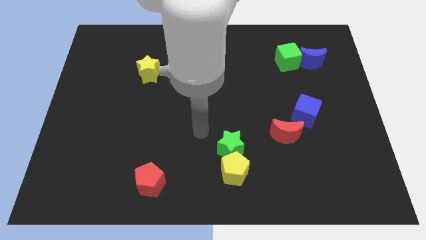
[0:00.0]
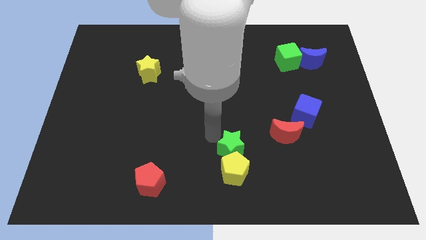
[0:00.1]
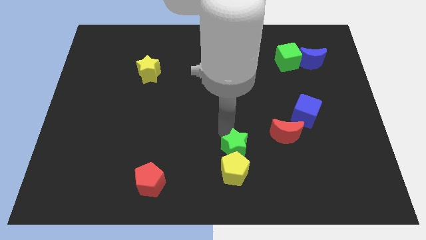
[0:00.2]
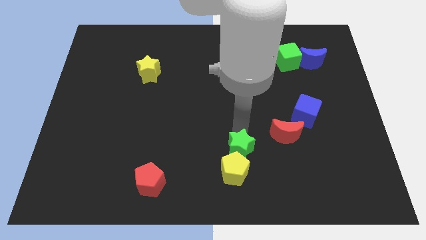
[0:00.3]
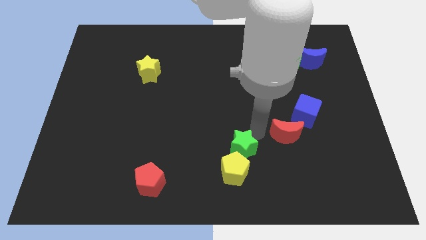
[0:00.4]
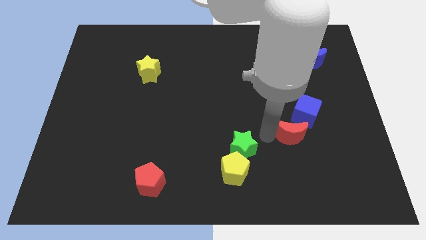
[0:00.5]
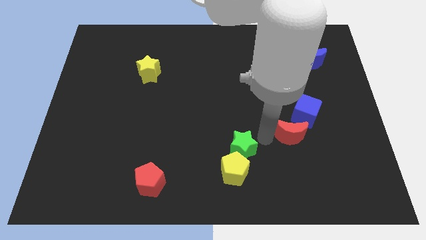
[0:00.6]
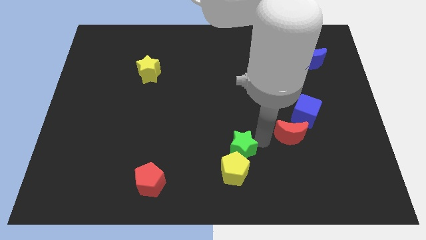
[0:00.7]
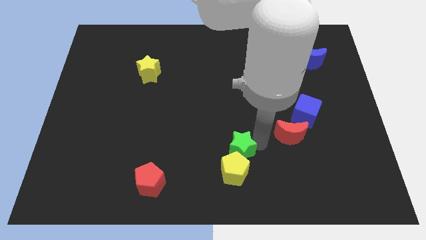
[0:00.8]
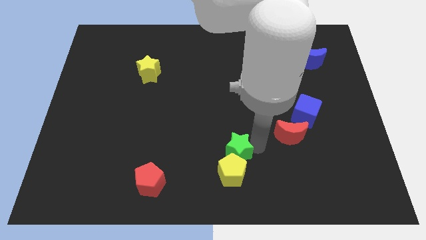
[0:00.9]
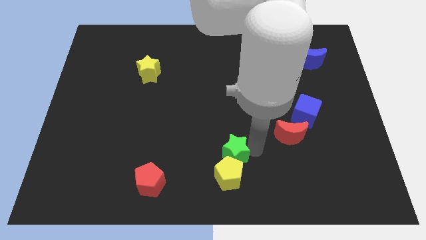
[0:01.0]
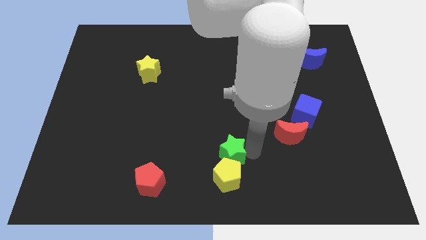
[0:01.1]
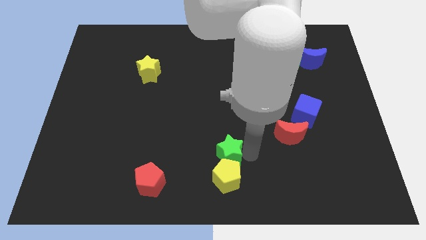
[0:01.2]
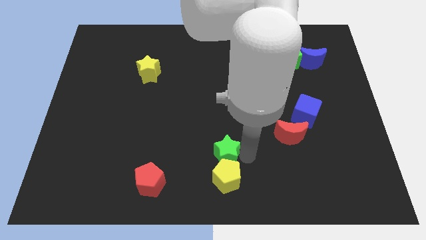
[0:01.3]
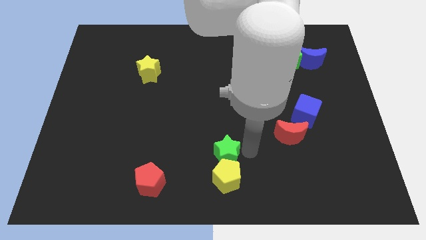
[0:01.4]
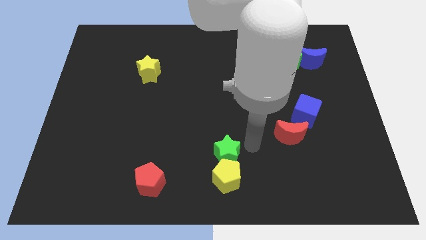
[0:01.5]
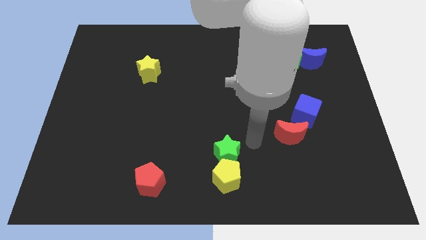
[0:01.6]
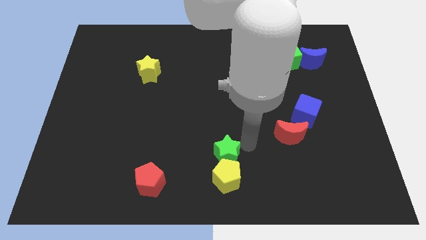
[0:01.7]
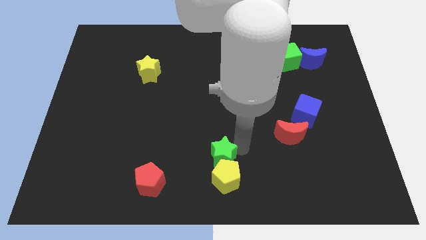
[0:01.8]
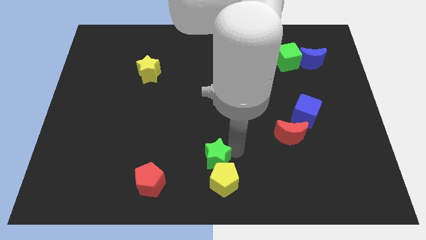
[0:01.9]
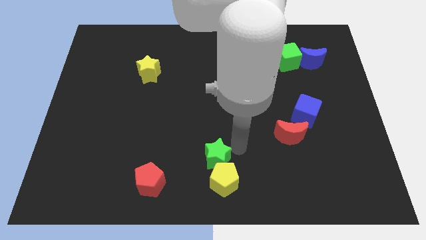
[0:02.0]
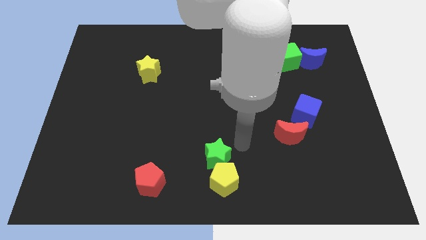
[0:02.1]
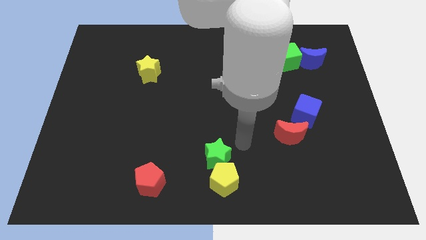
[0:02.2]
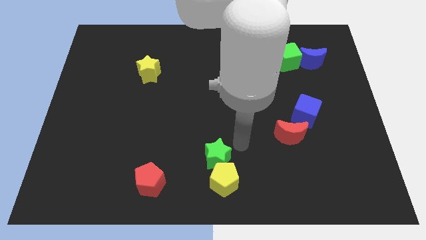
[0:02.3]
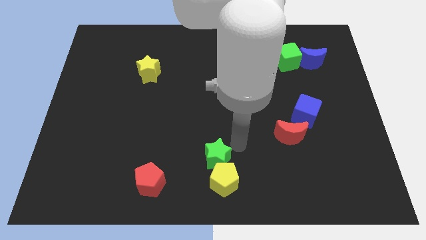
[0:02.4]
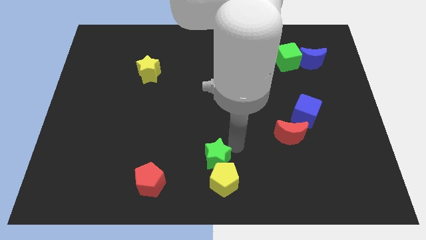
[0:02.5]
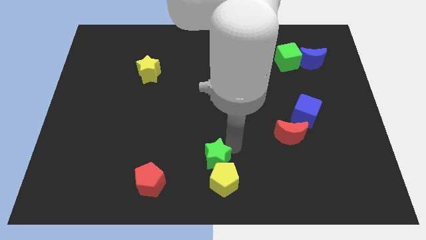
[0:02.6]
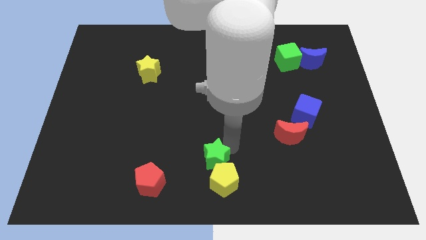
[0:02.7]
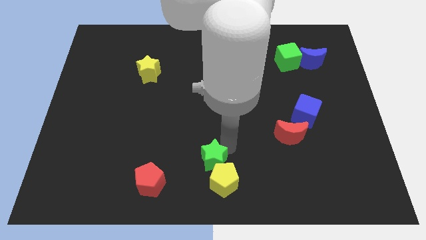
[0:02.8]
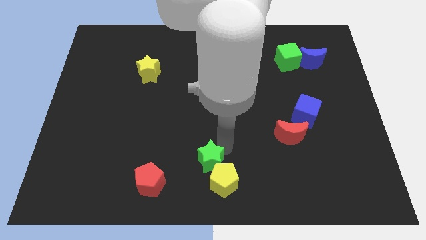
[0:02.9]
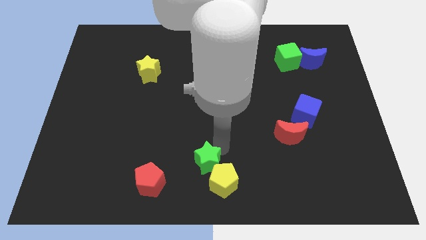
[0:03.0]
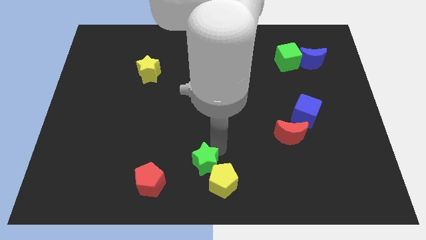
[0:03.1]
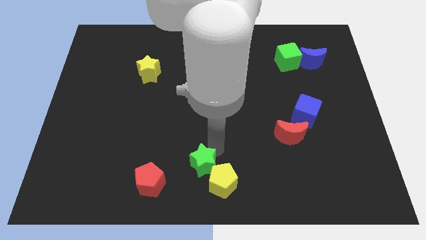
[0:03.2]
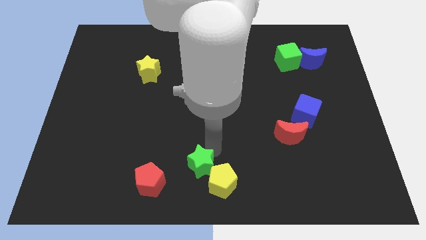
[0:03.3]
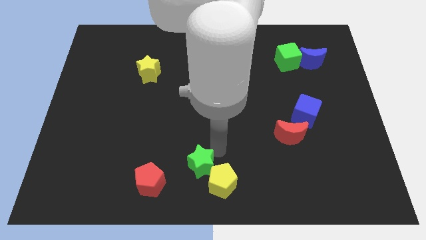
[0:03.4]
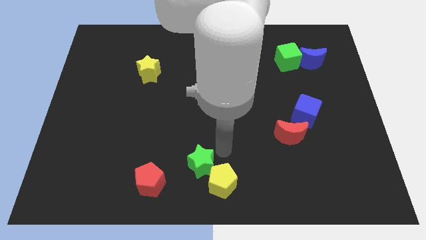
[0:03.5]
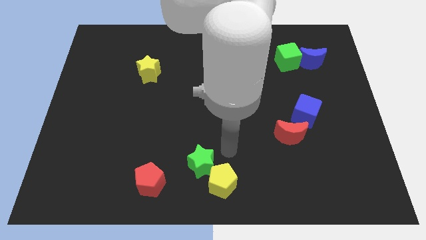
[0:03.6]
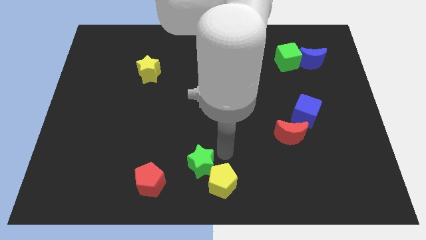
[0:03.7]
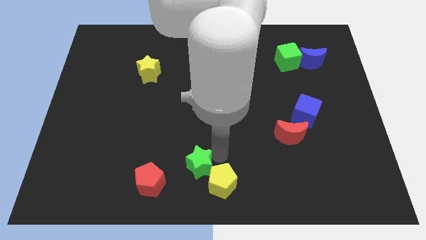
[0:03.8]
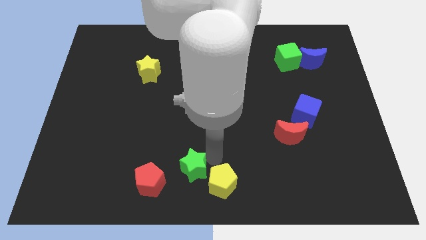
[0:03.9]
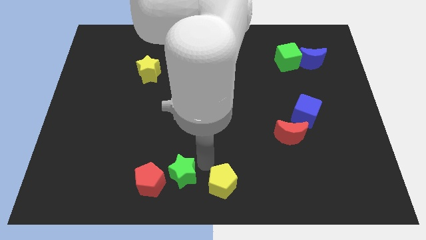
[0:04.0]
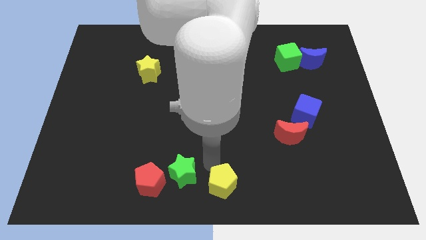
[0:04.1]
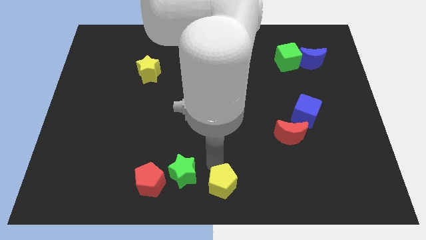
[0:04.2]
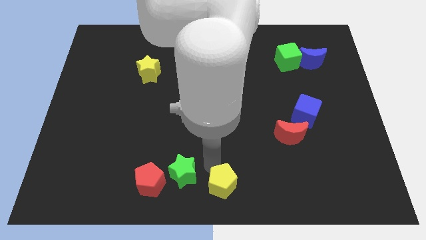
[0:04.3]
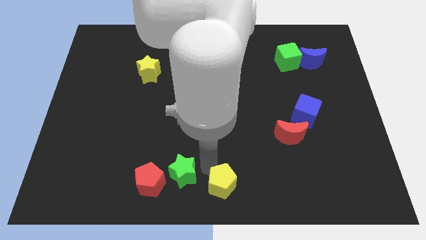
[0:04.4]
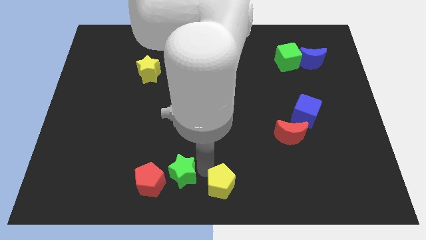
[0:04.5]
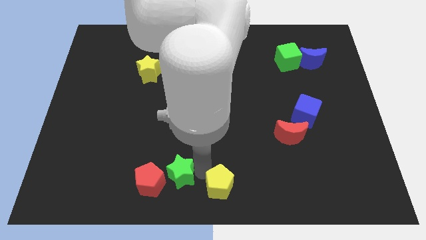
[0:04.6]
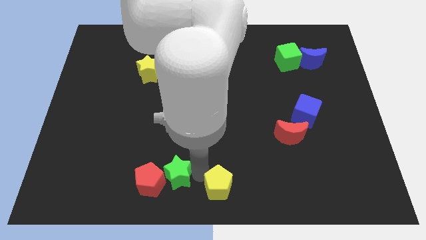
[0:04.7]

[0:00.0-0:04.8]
move the green star close to the red pentagon

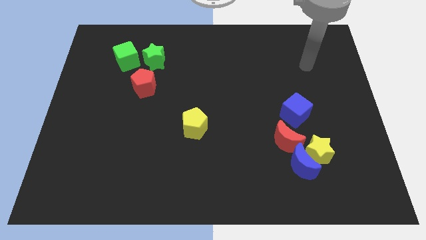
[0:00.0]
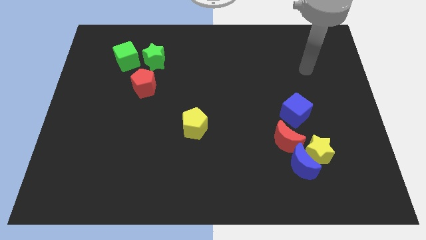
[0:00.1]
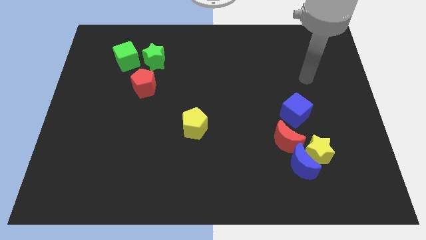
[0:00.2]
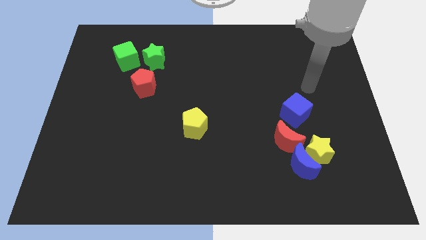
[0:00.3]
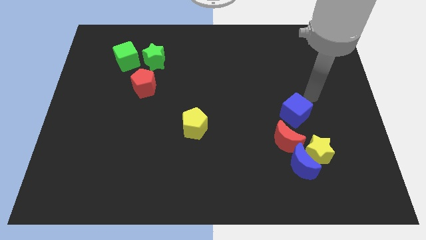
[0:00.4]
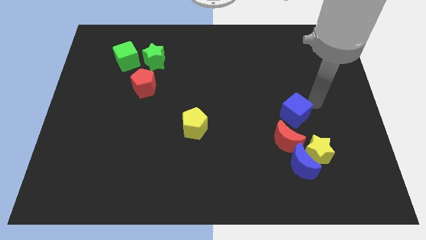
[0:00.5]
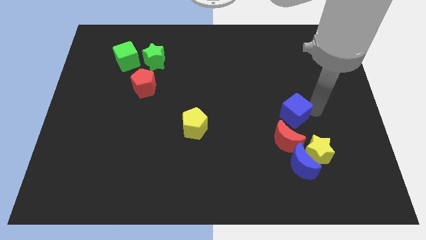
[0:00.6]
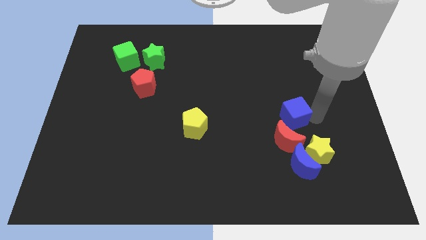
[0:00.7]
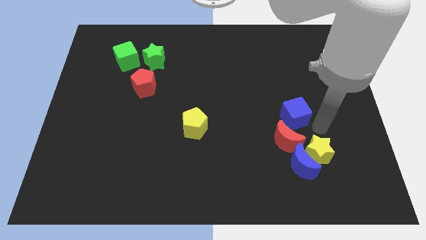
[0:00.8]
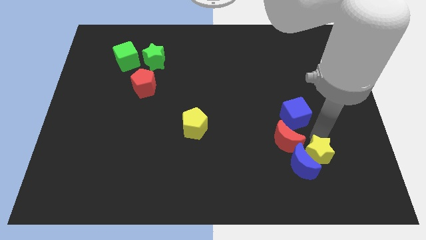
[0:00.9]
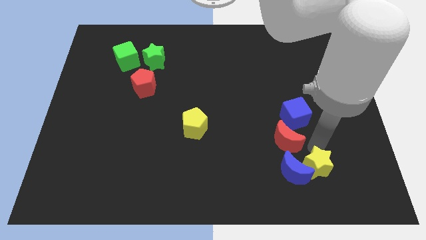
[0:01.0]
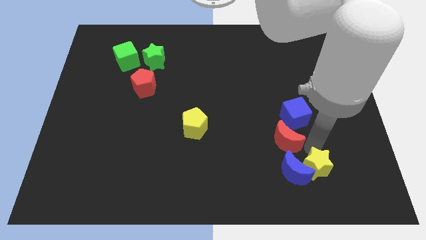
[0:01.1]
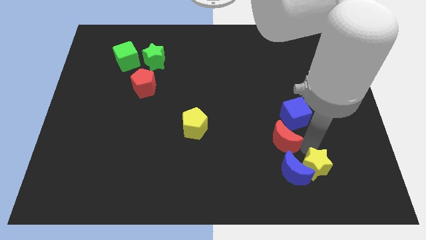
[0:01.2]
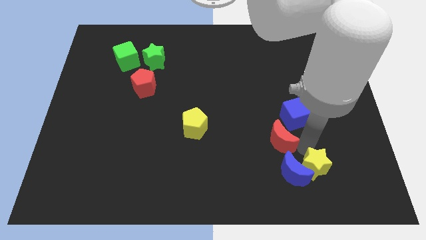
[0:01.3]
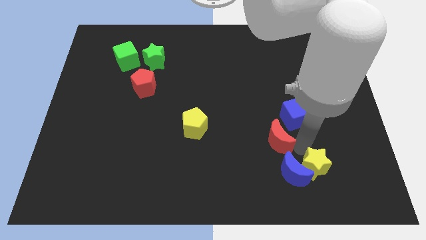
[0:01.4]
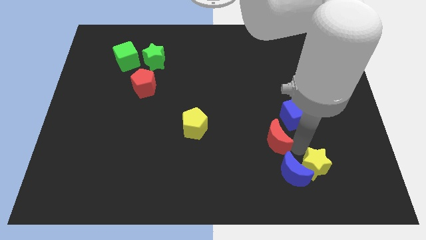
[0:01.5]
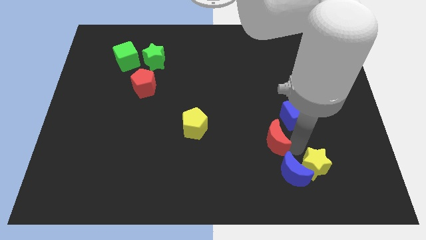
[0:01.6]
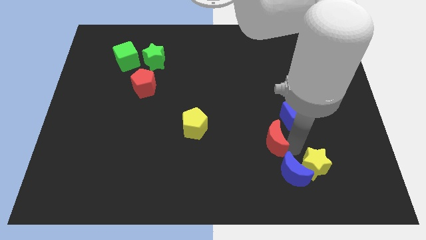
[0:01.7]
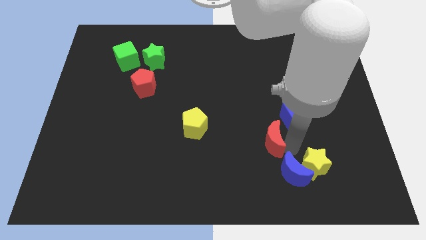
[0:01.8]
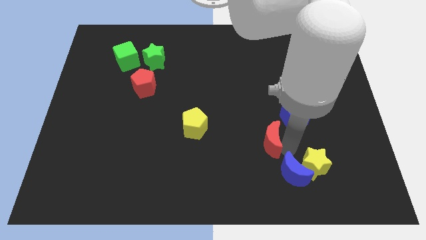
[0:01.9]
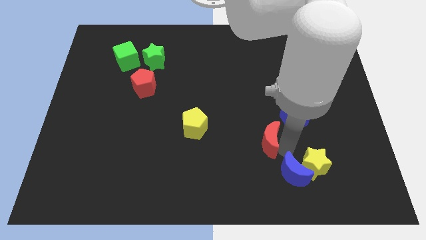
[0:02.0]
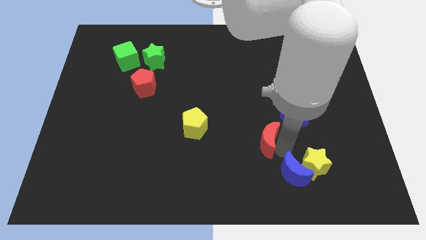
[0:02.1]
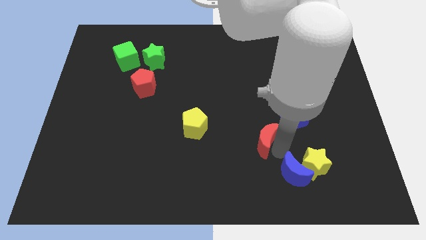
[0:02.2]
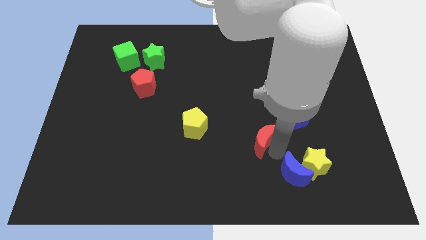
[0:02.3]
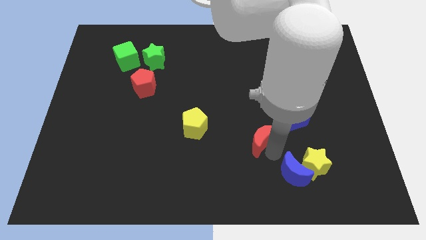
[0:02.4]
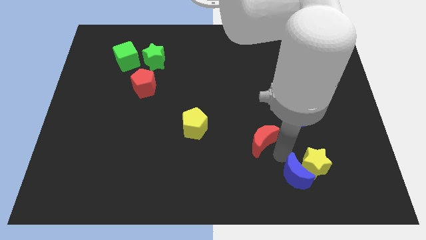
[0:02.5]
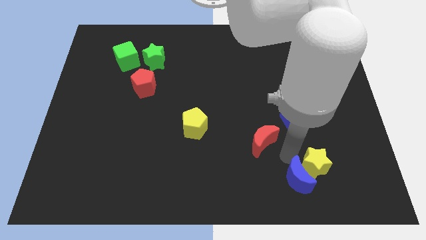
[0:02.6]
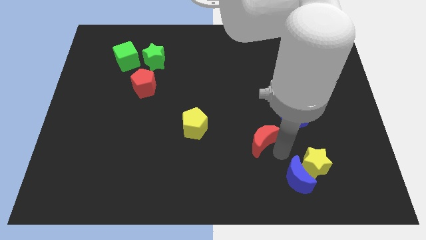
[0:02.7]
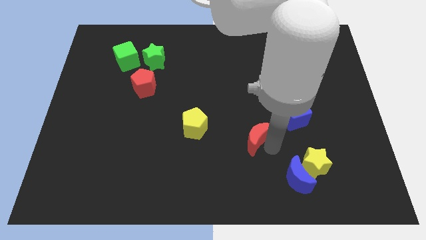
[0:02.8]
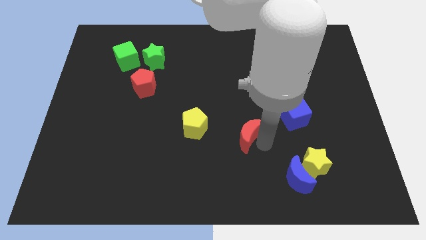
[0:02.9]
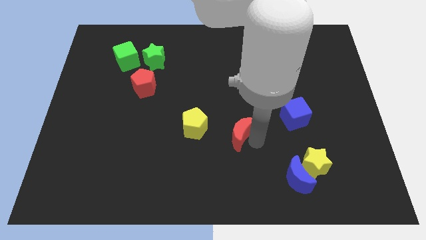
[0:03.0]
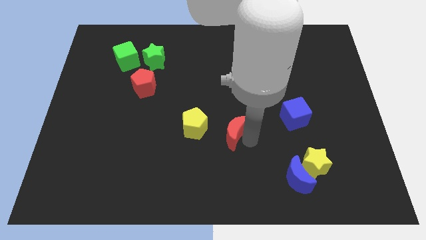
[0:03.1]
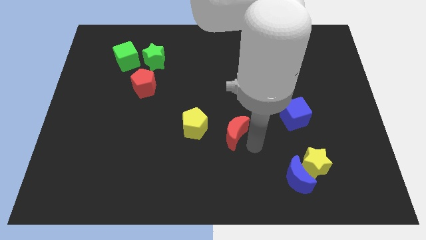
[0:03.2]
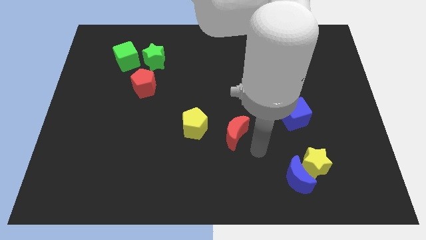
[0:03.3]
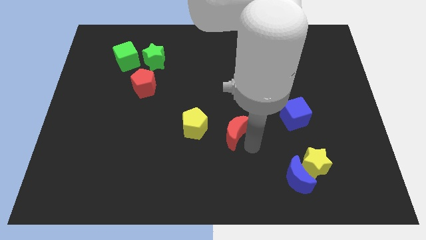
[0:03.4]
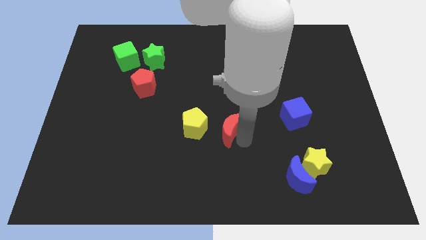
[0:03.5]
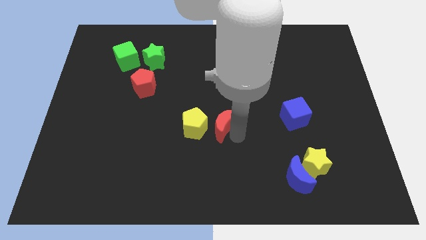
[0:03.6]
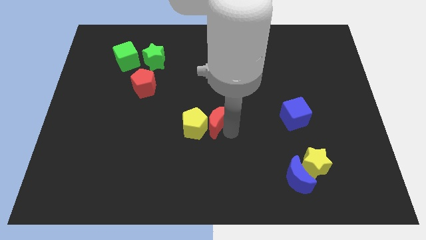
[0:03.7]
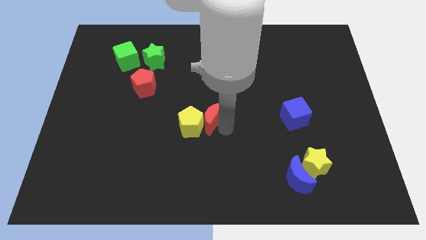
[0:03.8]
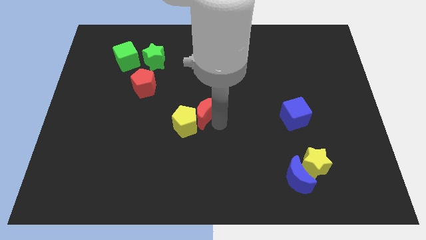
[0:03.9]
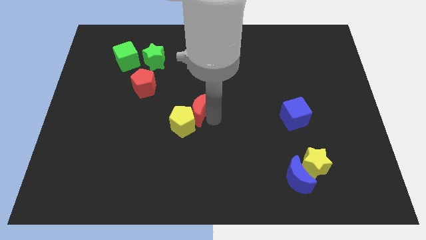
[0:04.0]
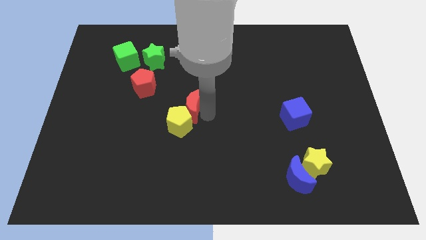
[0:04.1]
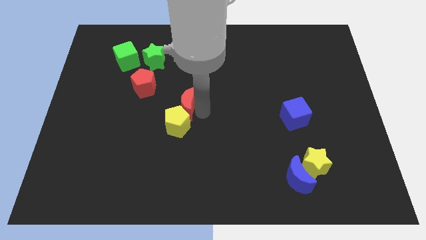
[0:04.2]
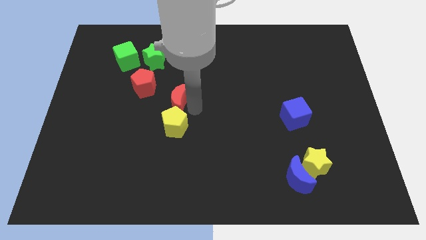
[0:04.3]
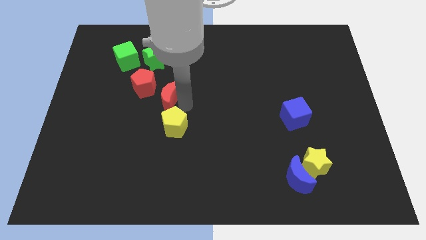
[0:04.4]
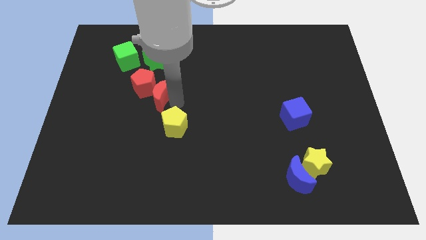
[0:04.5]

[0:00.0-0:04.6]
move the red moon to the red pentagon
